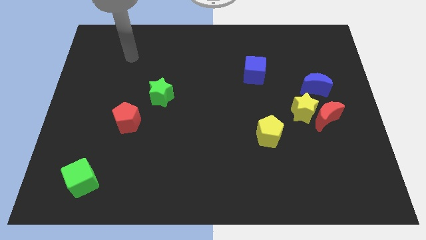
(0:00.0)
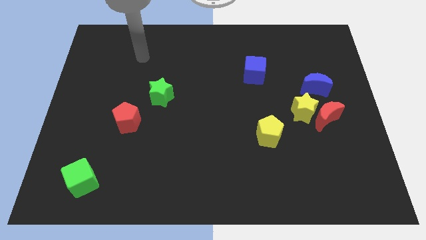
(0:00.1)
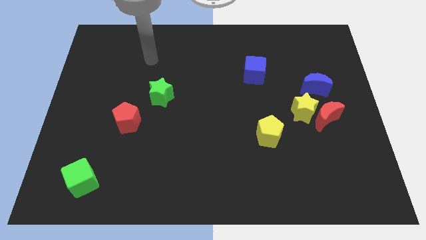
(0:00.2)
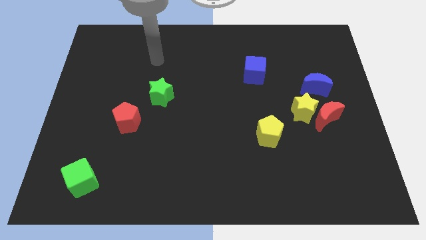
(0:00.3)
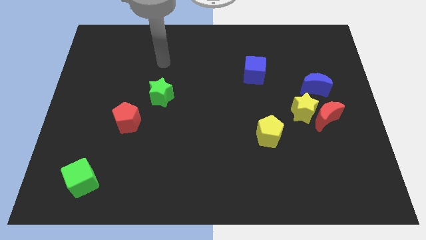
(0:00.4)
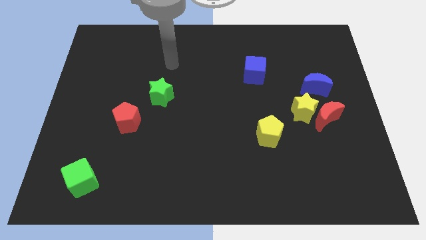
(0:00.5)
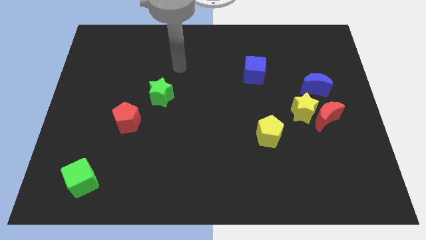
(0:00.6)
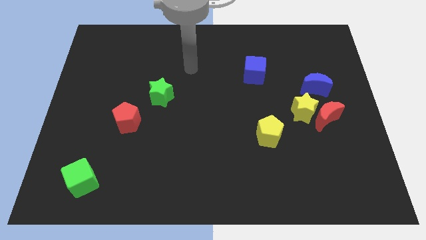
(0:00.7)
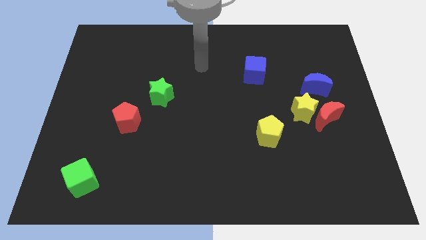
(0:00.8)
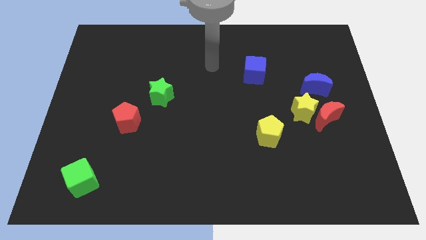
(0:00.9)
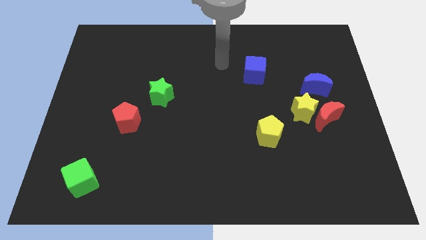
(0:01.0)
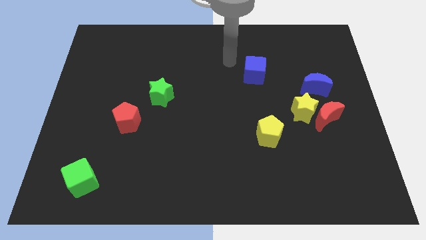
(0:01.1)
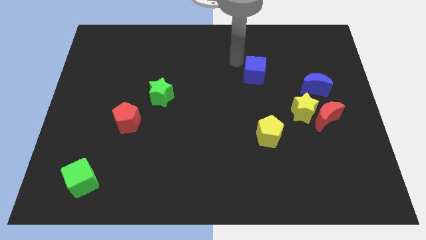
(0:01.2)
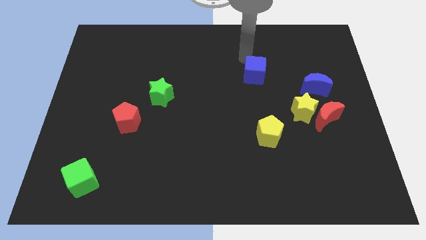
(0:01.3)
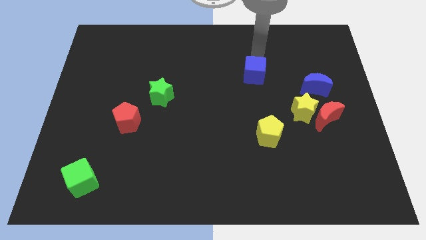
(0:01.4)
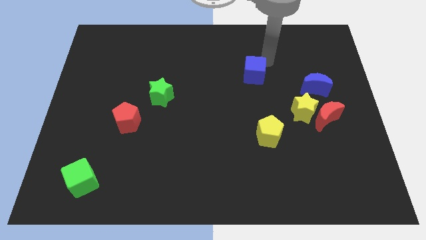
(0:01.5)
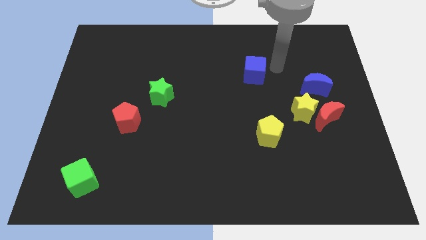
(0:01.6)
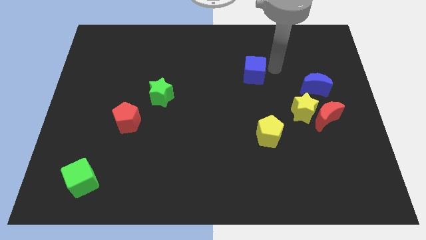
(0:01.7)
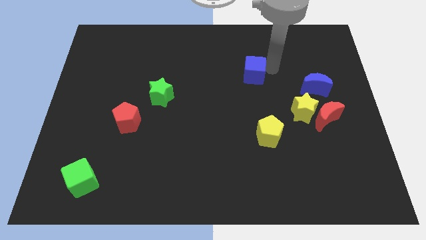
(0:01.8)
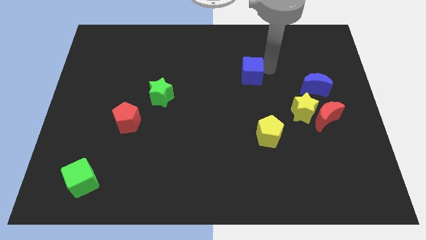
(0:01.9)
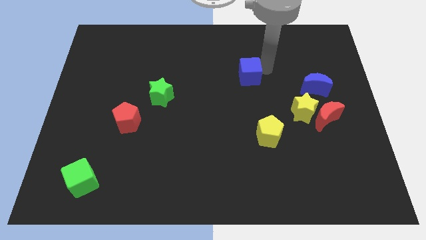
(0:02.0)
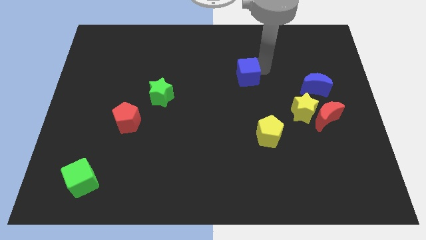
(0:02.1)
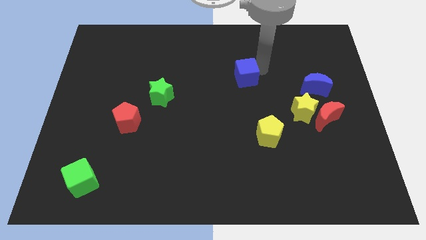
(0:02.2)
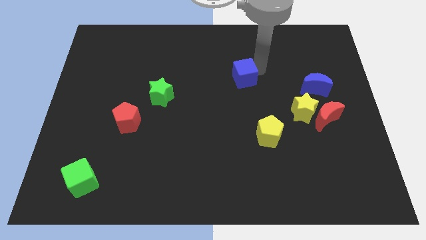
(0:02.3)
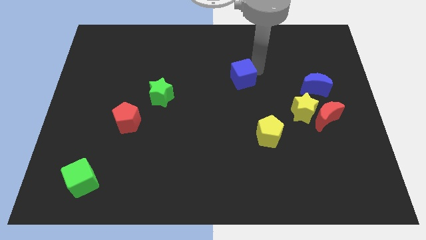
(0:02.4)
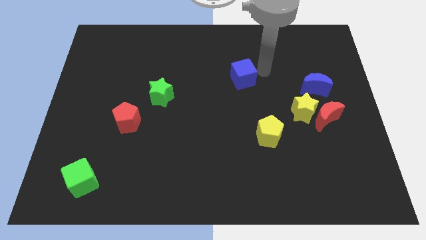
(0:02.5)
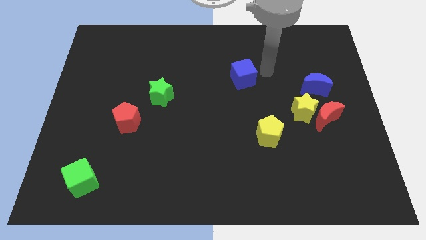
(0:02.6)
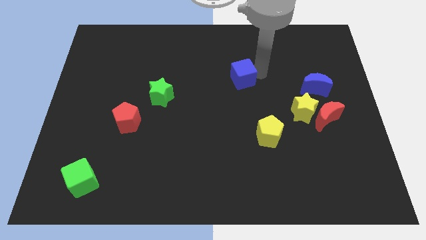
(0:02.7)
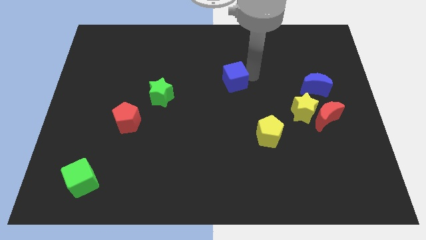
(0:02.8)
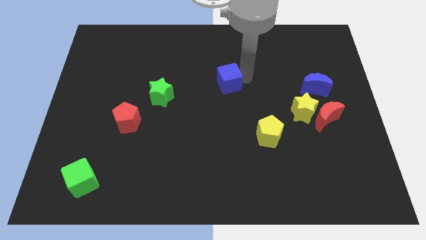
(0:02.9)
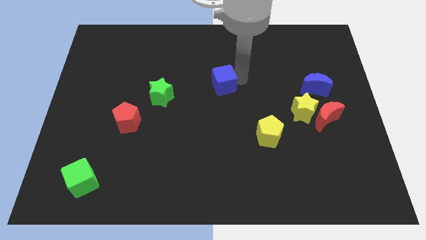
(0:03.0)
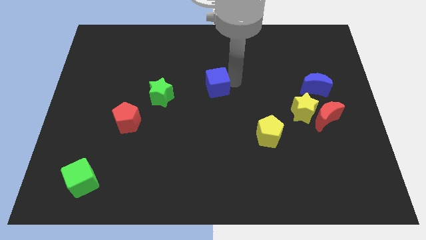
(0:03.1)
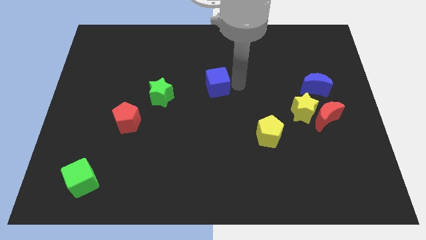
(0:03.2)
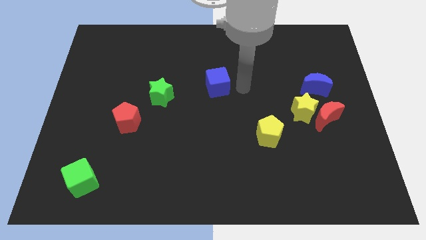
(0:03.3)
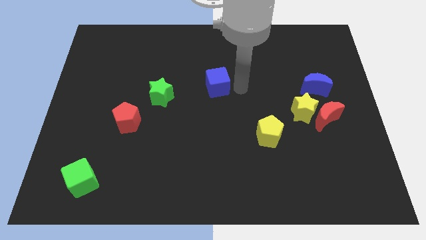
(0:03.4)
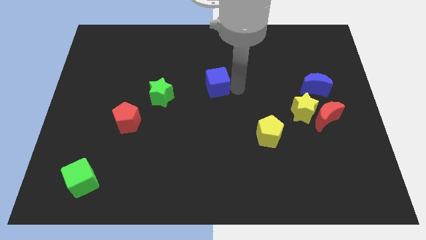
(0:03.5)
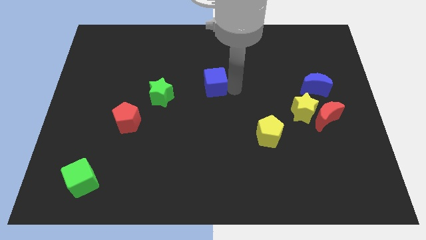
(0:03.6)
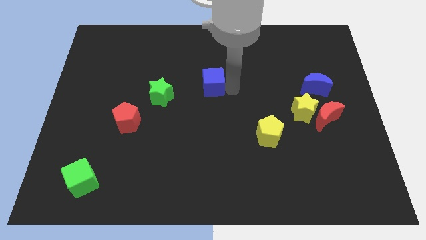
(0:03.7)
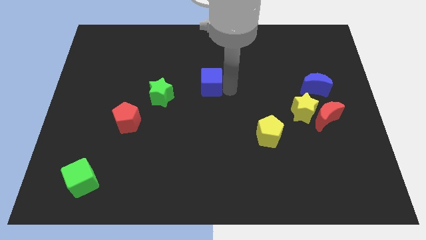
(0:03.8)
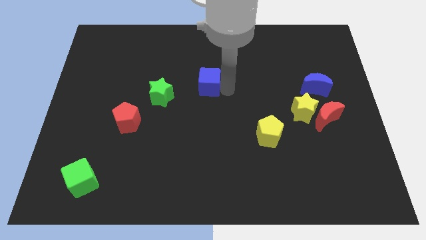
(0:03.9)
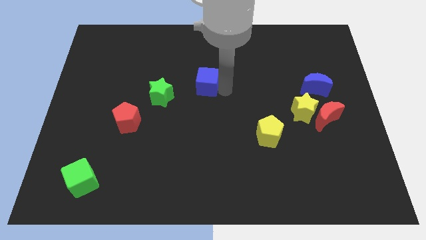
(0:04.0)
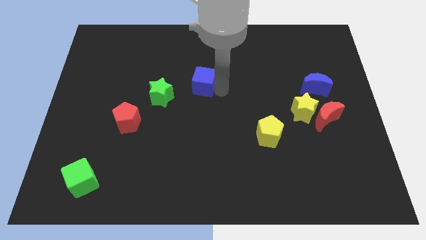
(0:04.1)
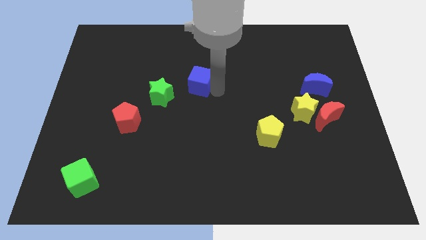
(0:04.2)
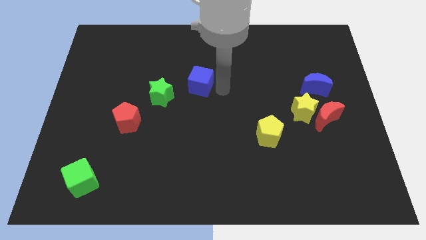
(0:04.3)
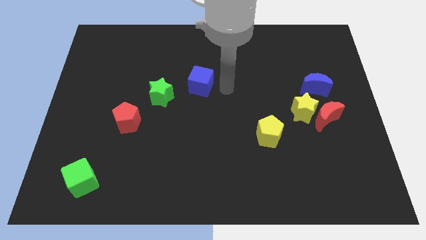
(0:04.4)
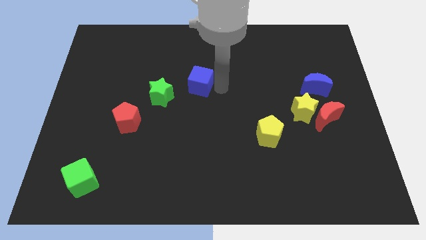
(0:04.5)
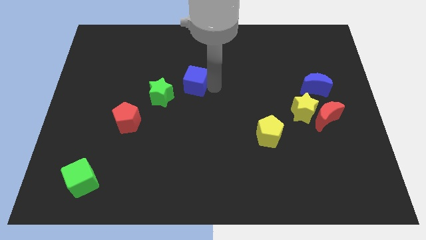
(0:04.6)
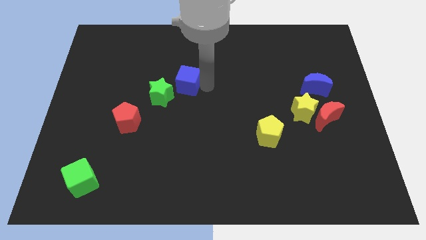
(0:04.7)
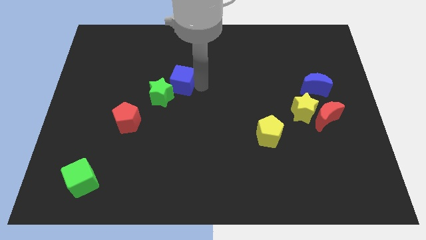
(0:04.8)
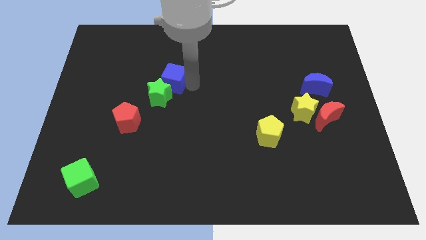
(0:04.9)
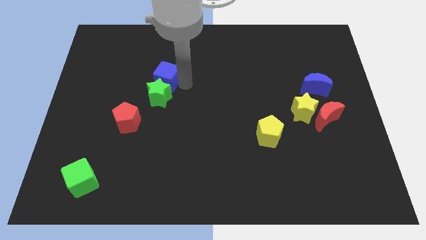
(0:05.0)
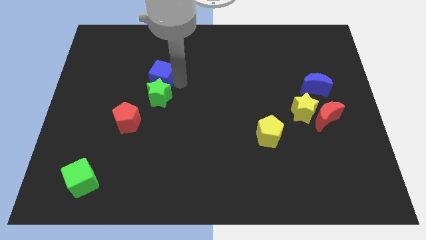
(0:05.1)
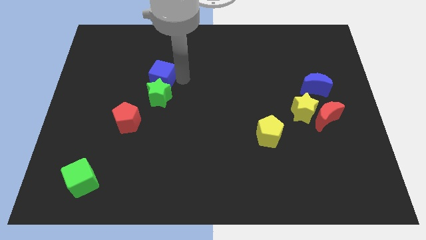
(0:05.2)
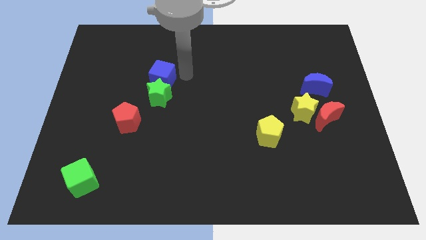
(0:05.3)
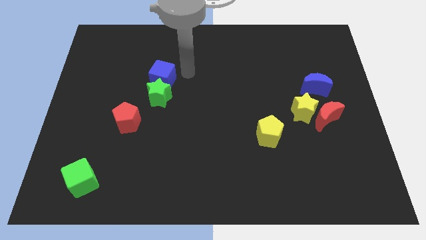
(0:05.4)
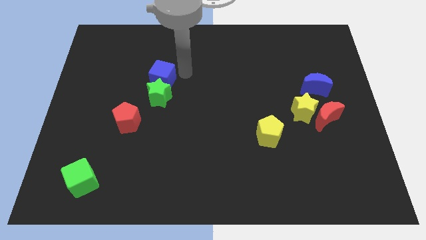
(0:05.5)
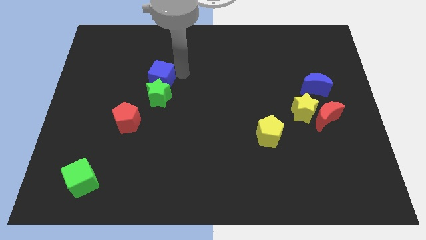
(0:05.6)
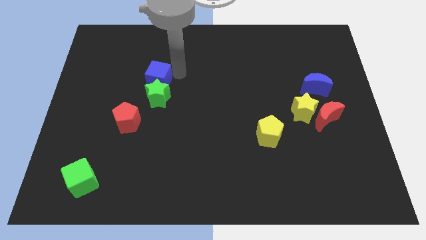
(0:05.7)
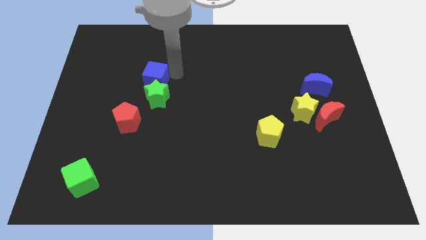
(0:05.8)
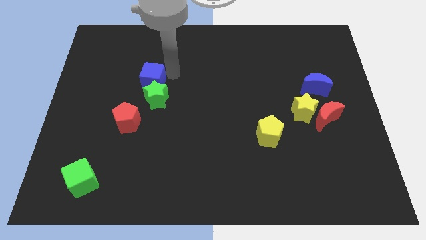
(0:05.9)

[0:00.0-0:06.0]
push the blue cube to the top side of the red pentagon

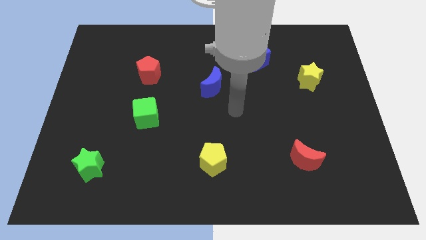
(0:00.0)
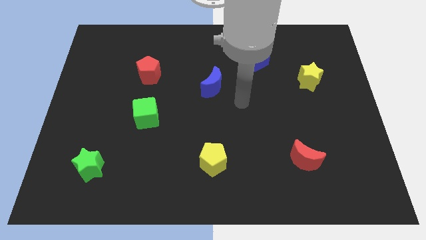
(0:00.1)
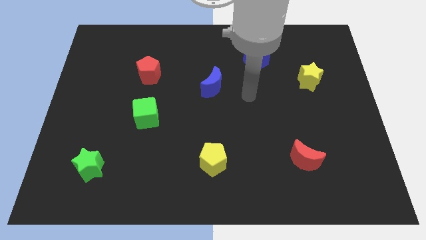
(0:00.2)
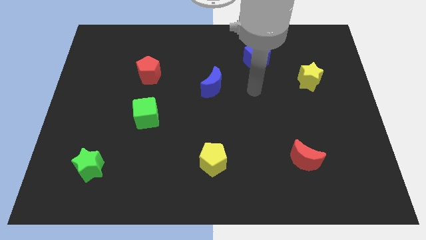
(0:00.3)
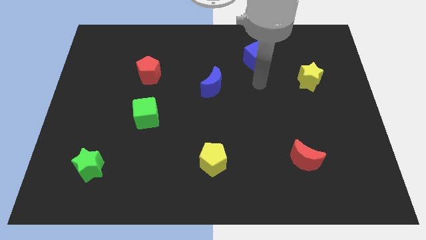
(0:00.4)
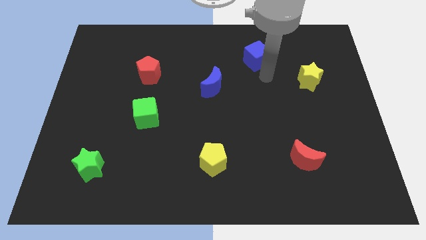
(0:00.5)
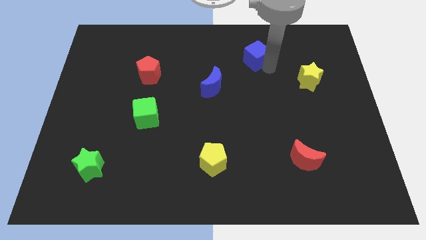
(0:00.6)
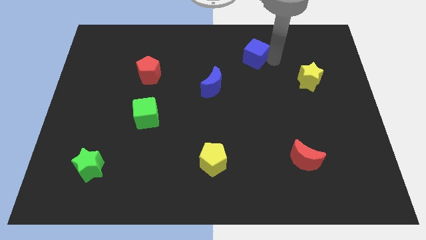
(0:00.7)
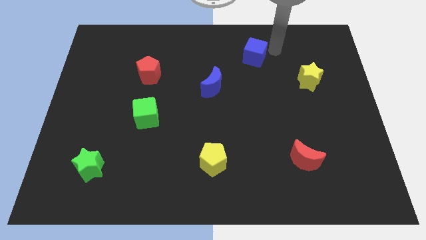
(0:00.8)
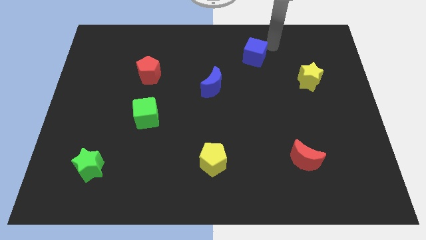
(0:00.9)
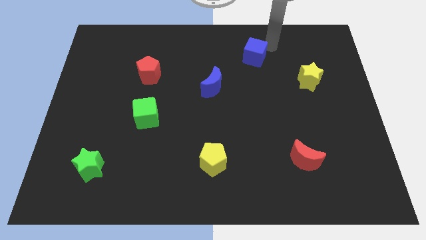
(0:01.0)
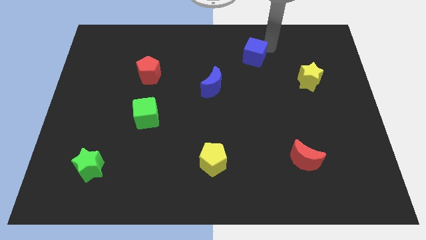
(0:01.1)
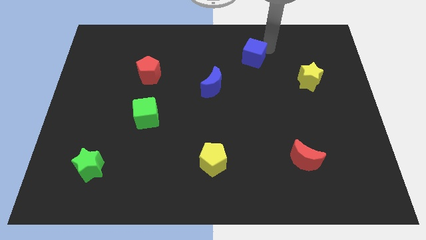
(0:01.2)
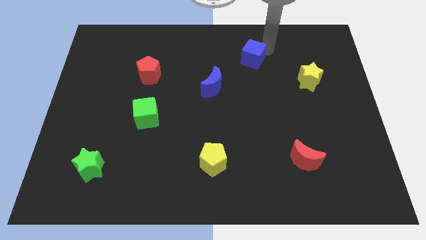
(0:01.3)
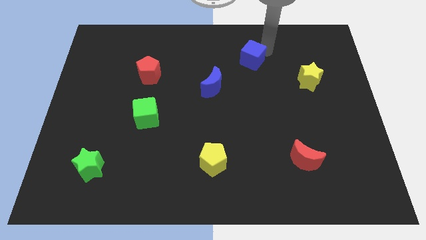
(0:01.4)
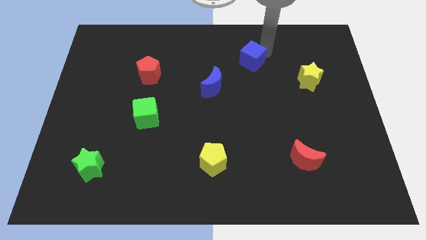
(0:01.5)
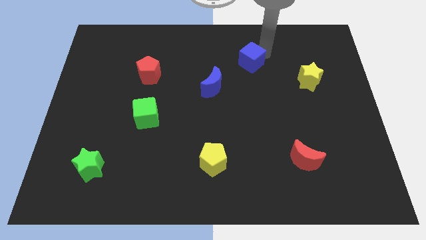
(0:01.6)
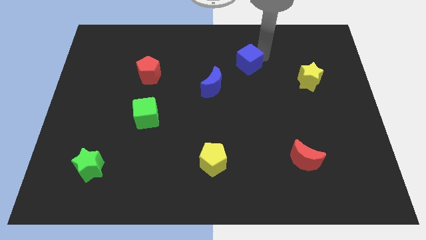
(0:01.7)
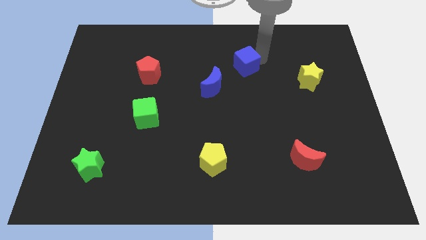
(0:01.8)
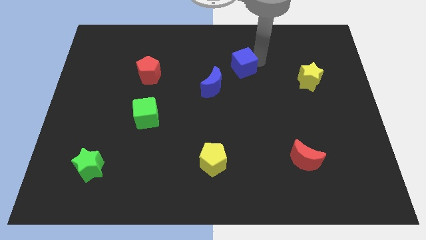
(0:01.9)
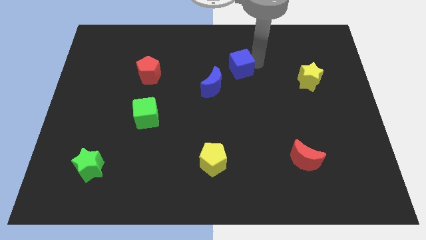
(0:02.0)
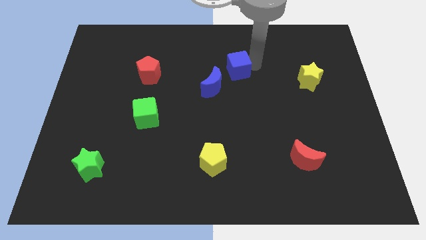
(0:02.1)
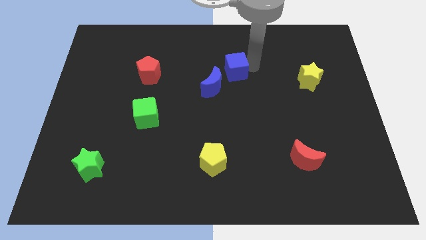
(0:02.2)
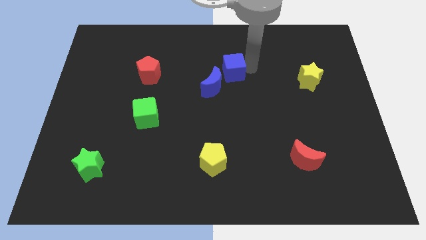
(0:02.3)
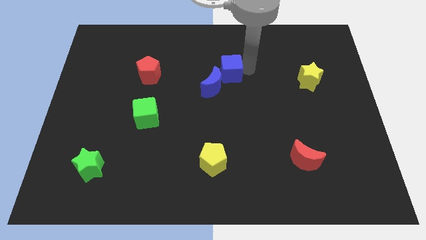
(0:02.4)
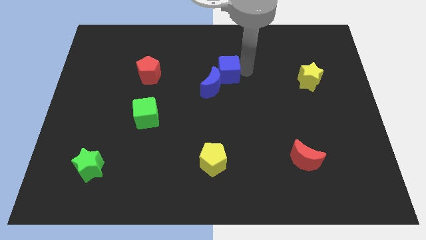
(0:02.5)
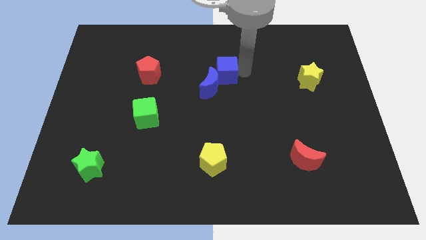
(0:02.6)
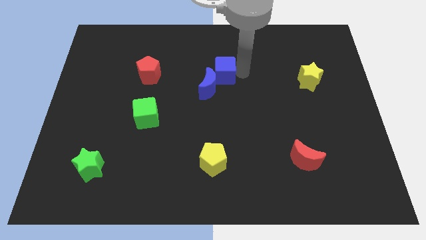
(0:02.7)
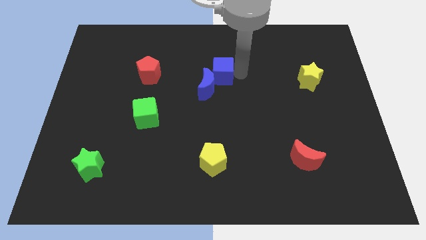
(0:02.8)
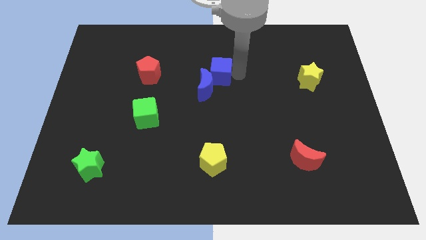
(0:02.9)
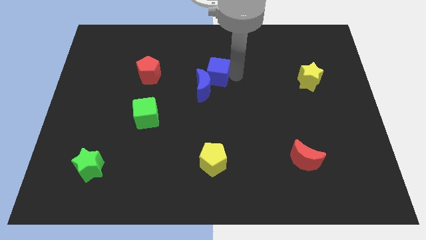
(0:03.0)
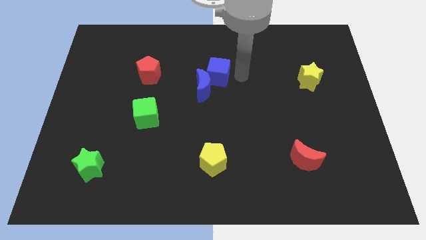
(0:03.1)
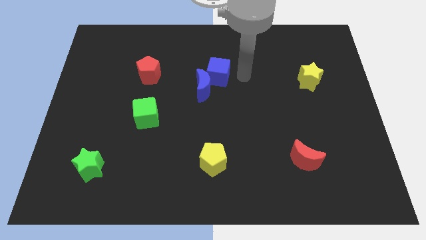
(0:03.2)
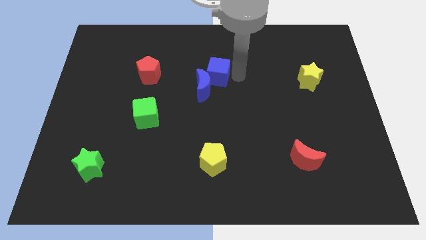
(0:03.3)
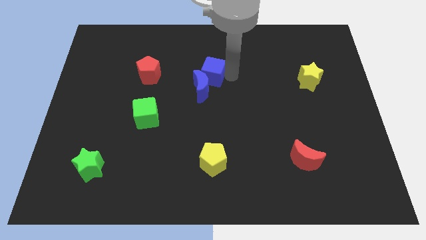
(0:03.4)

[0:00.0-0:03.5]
slide the blue cube to the right of the red pentagon
